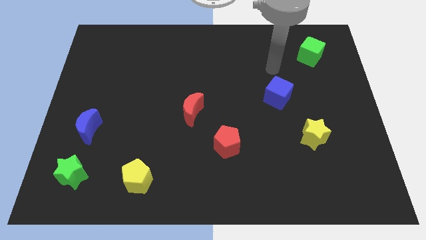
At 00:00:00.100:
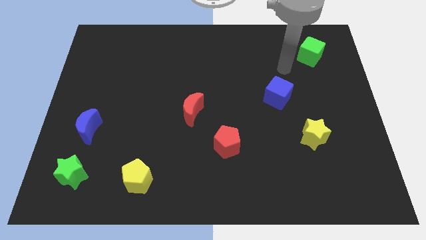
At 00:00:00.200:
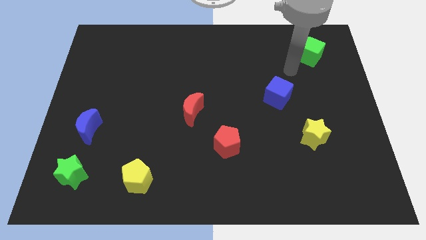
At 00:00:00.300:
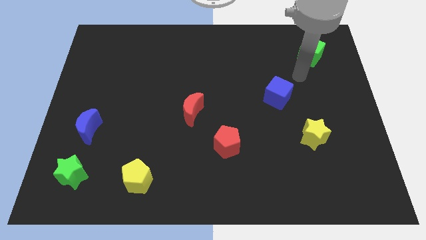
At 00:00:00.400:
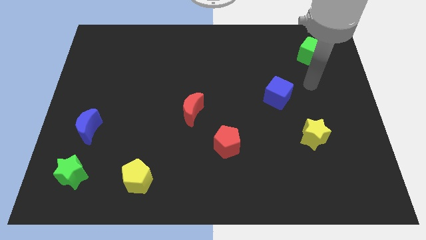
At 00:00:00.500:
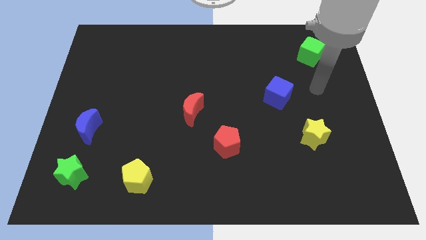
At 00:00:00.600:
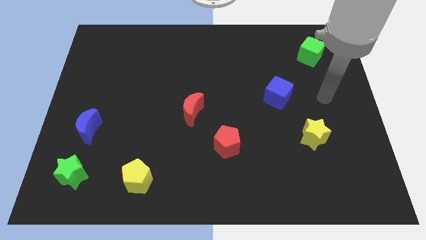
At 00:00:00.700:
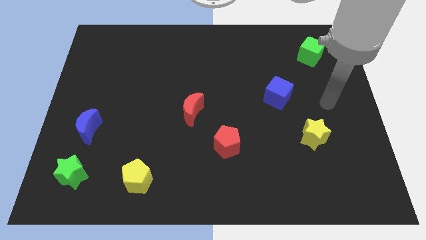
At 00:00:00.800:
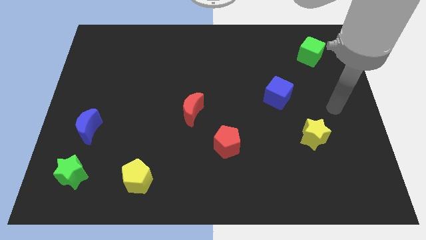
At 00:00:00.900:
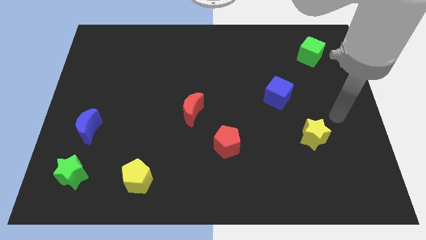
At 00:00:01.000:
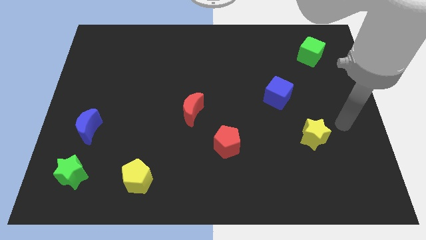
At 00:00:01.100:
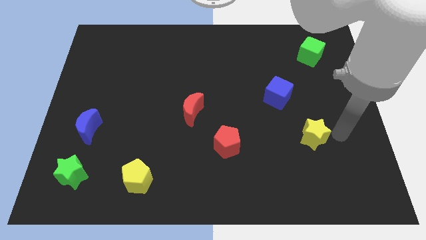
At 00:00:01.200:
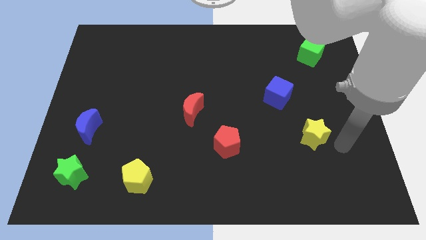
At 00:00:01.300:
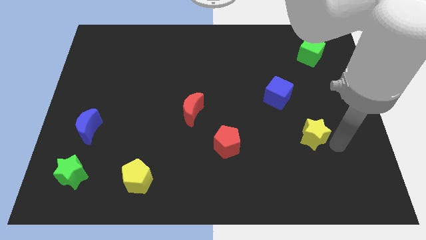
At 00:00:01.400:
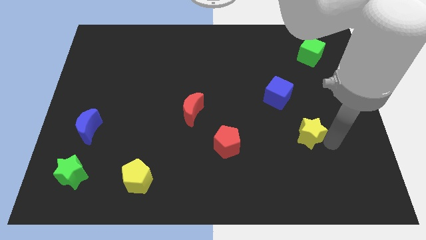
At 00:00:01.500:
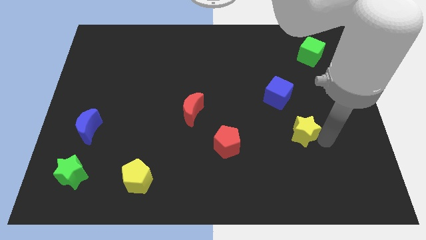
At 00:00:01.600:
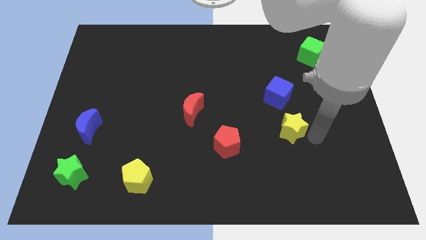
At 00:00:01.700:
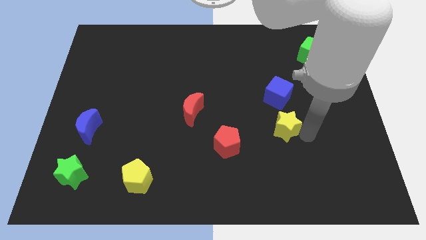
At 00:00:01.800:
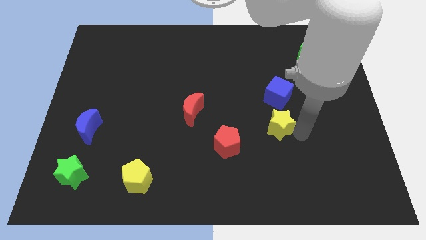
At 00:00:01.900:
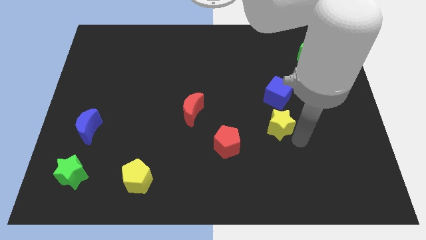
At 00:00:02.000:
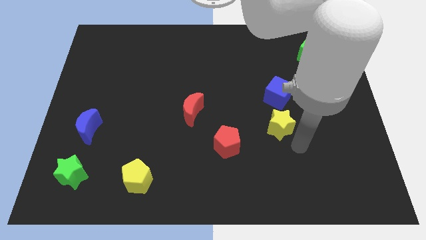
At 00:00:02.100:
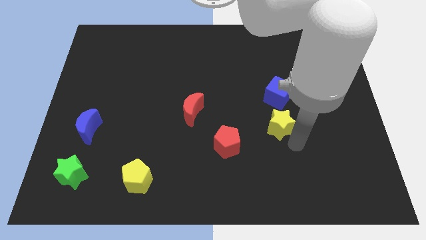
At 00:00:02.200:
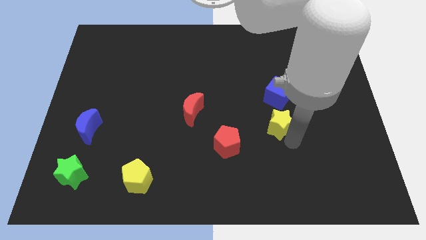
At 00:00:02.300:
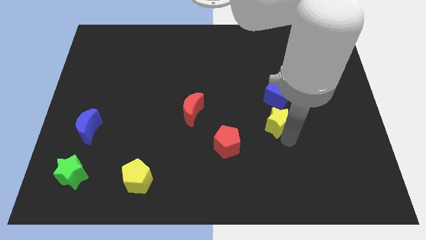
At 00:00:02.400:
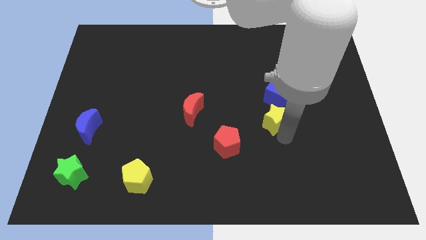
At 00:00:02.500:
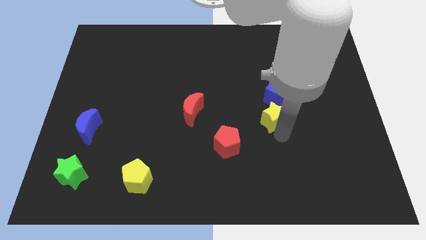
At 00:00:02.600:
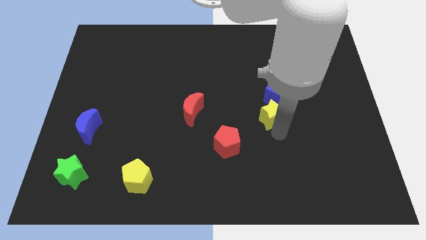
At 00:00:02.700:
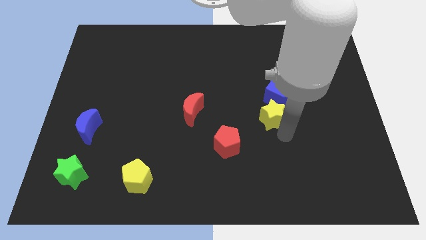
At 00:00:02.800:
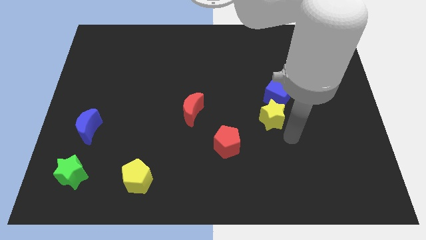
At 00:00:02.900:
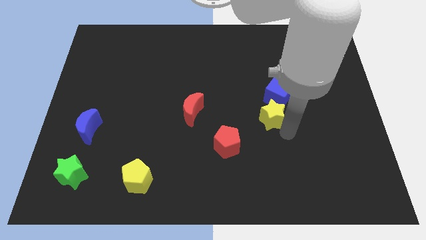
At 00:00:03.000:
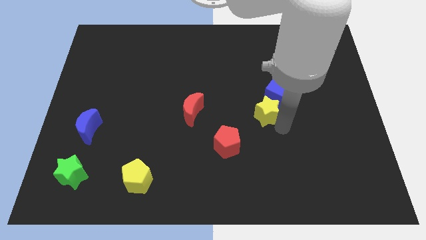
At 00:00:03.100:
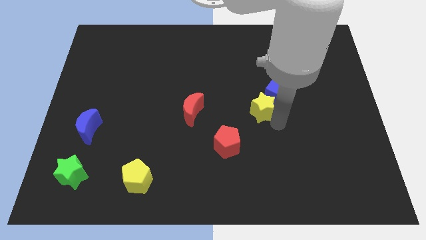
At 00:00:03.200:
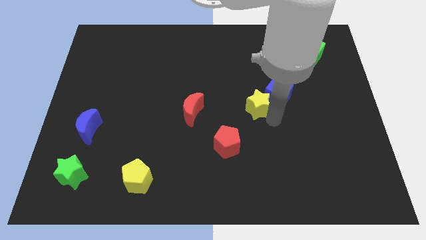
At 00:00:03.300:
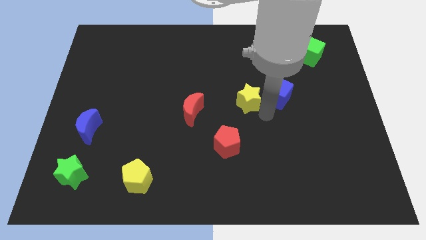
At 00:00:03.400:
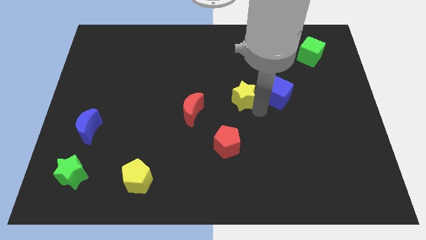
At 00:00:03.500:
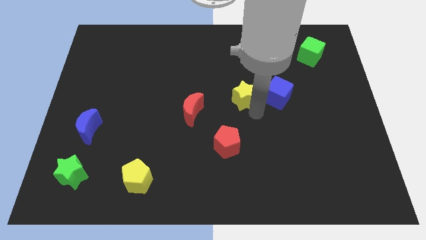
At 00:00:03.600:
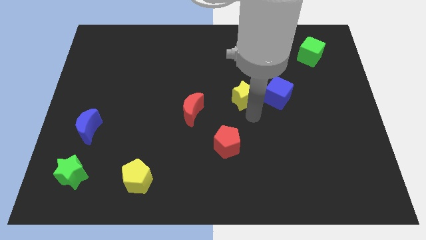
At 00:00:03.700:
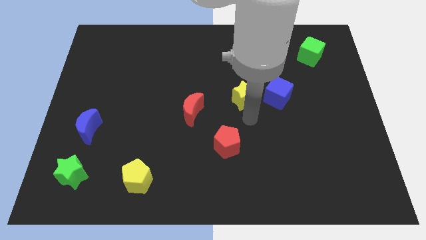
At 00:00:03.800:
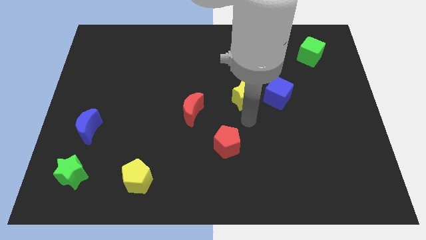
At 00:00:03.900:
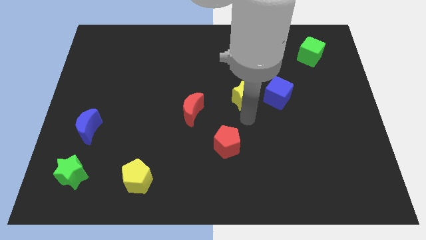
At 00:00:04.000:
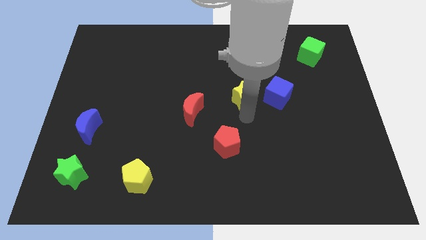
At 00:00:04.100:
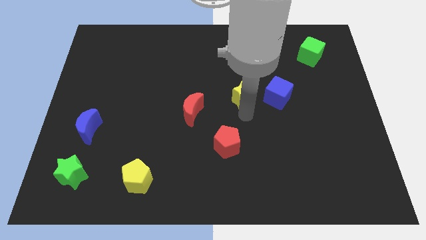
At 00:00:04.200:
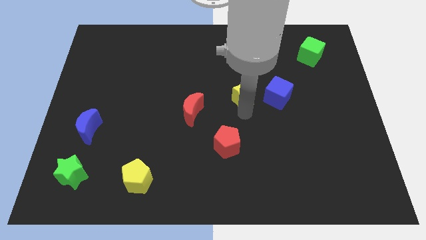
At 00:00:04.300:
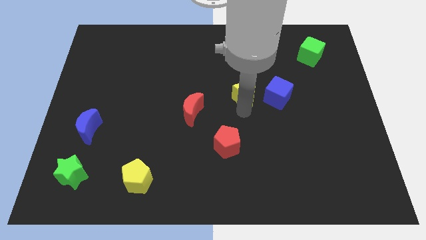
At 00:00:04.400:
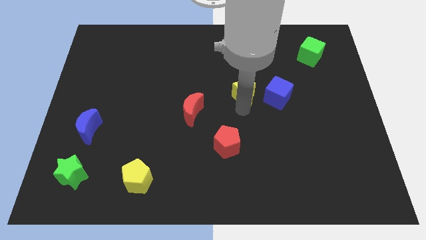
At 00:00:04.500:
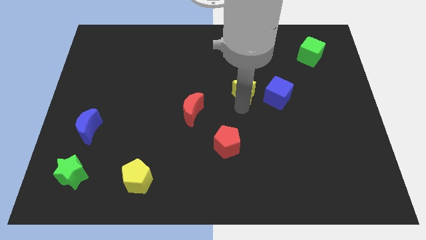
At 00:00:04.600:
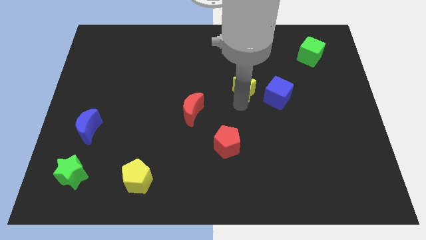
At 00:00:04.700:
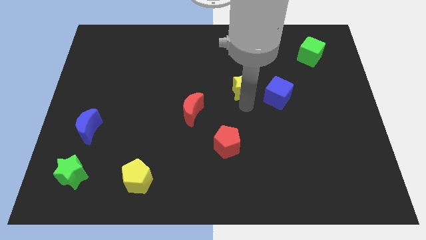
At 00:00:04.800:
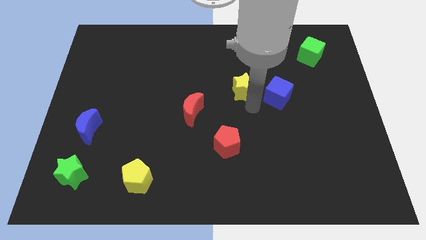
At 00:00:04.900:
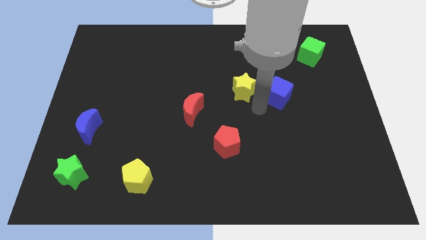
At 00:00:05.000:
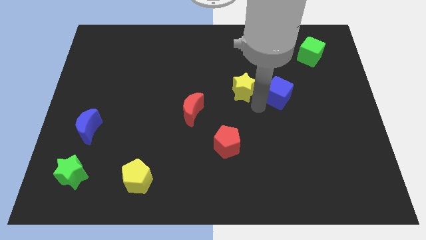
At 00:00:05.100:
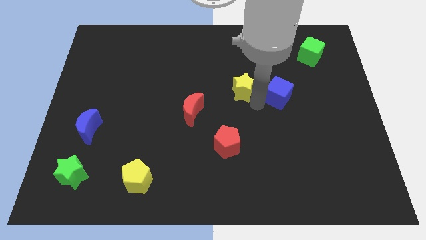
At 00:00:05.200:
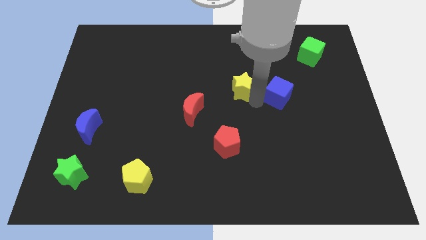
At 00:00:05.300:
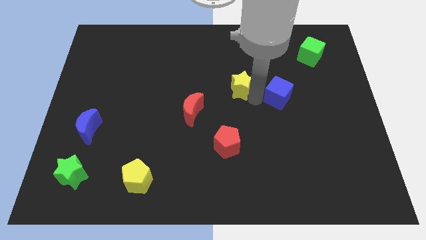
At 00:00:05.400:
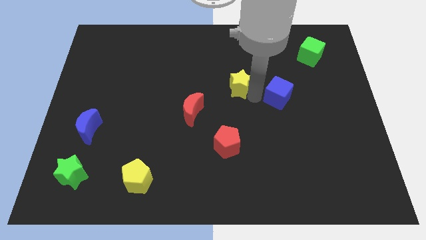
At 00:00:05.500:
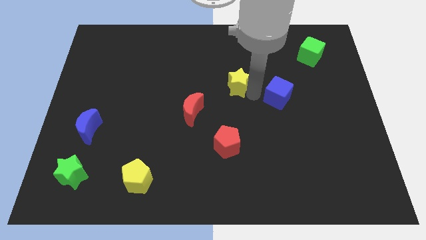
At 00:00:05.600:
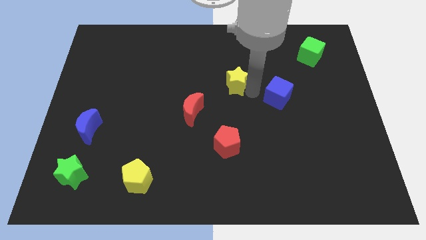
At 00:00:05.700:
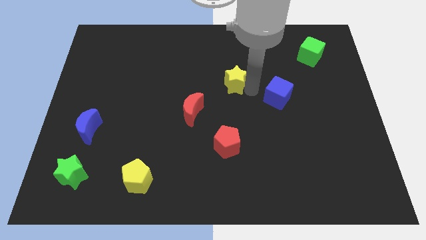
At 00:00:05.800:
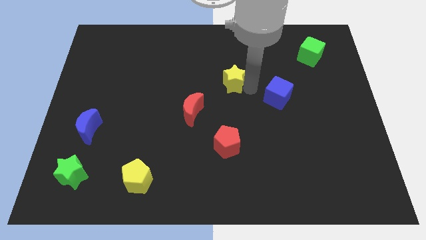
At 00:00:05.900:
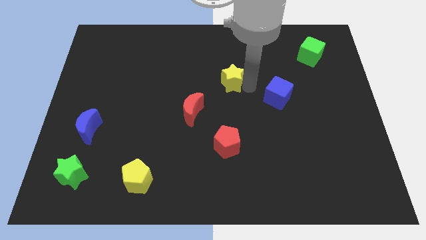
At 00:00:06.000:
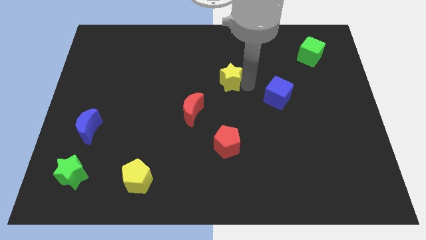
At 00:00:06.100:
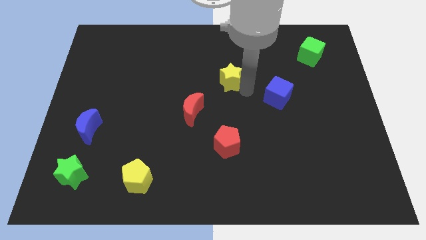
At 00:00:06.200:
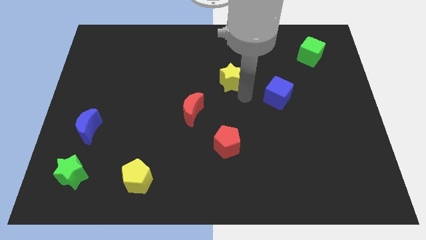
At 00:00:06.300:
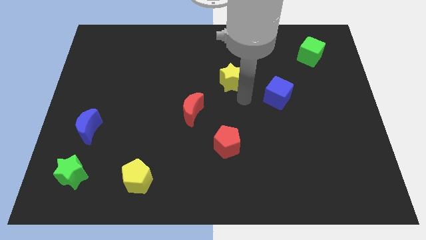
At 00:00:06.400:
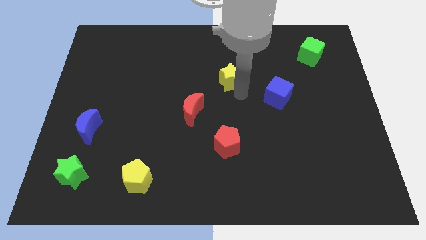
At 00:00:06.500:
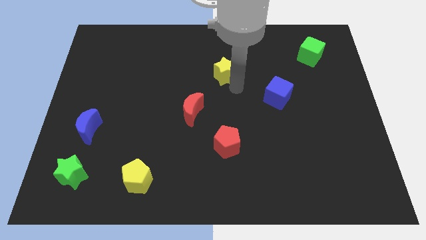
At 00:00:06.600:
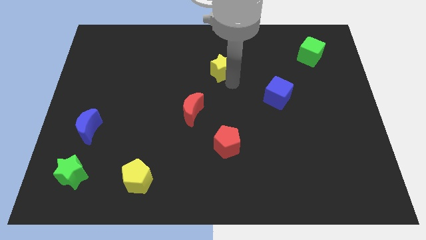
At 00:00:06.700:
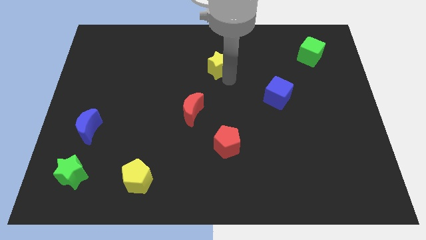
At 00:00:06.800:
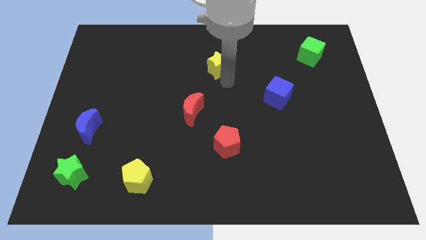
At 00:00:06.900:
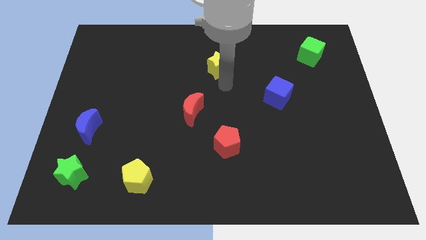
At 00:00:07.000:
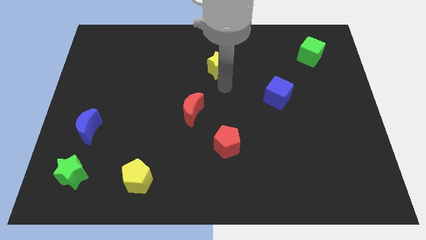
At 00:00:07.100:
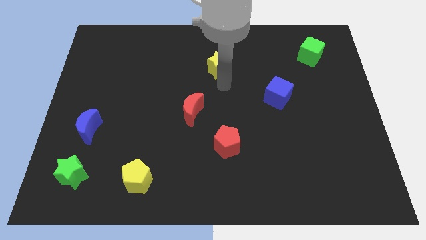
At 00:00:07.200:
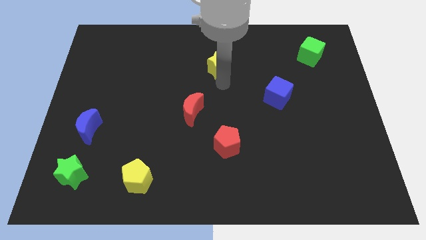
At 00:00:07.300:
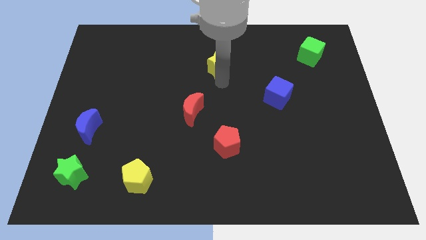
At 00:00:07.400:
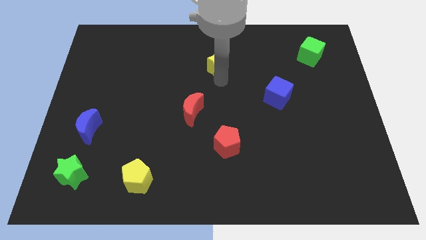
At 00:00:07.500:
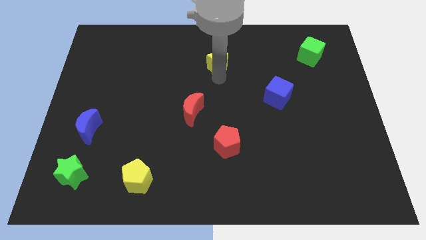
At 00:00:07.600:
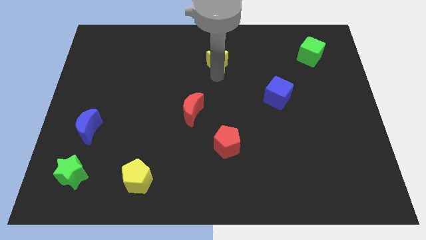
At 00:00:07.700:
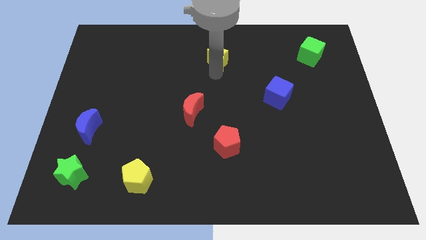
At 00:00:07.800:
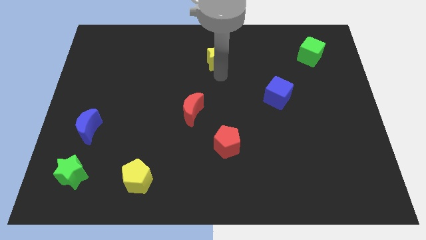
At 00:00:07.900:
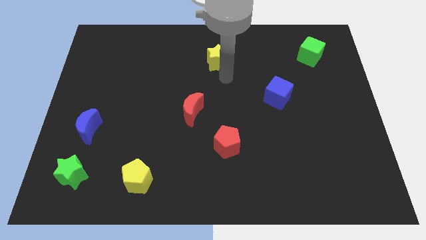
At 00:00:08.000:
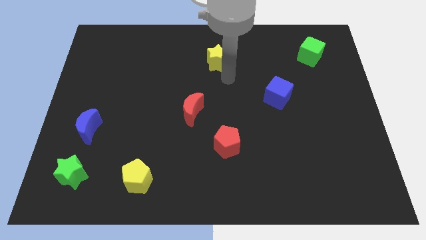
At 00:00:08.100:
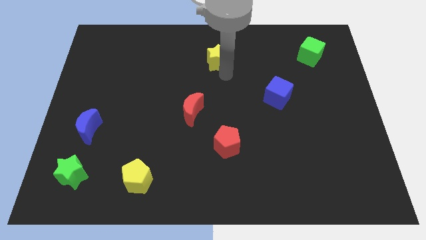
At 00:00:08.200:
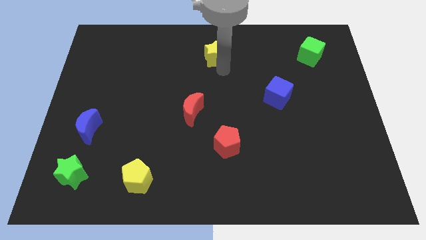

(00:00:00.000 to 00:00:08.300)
move the yellow star to the top
